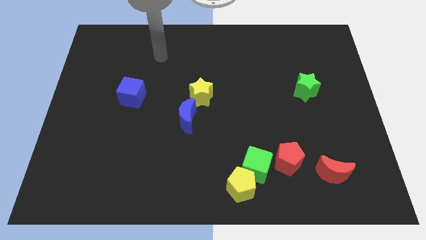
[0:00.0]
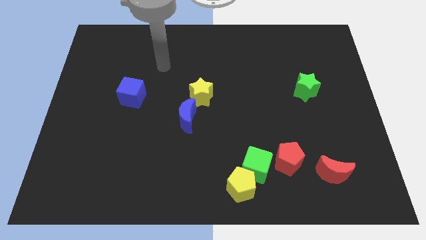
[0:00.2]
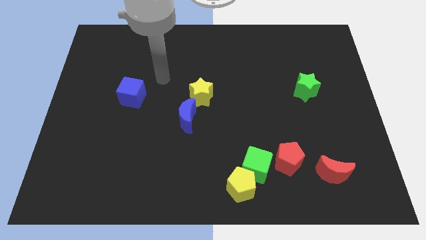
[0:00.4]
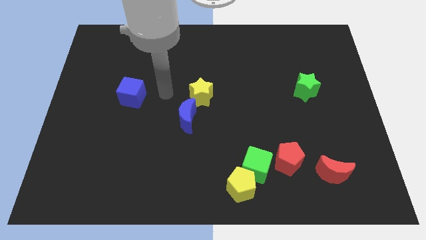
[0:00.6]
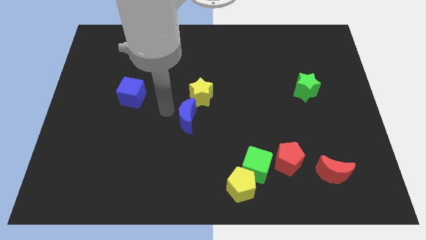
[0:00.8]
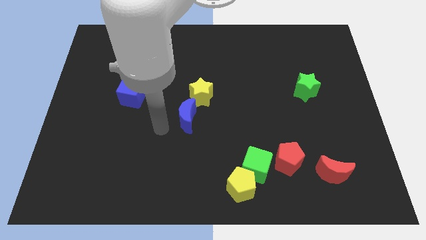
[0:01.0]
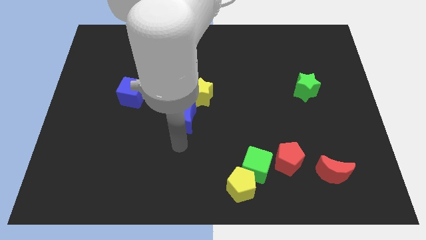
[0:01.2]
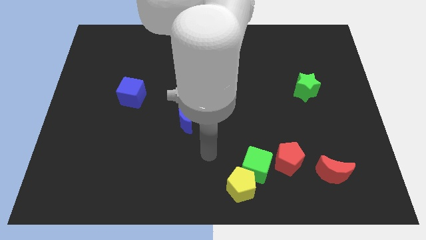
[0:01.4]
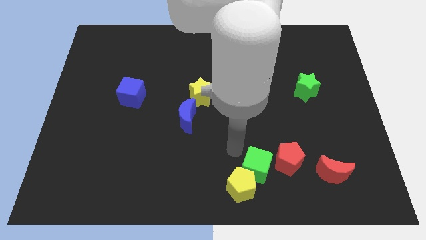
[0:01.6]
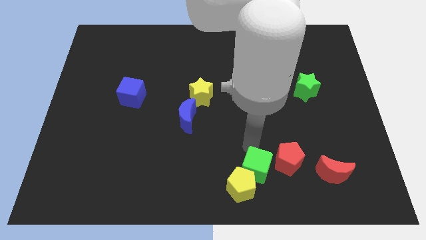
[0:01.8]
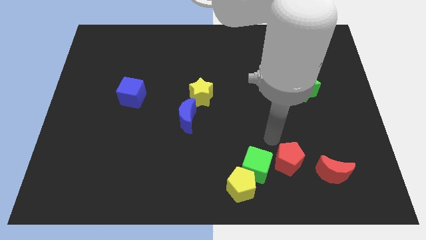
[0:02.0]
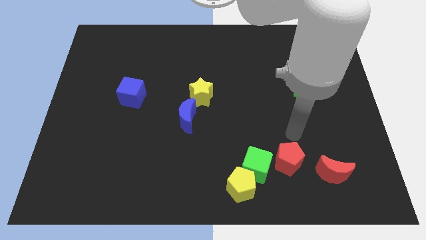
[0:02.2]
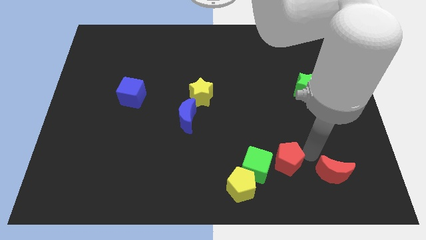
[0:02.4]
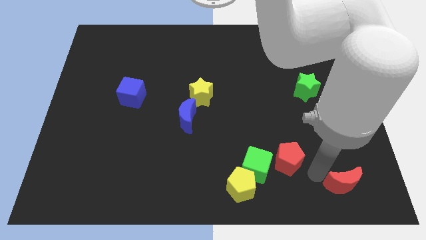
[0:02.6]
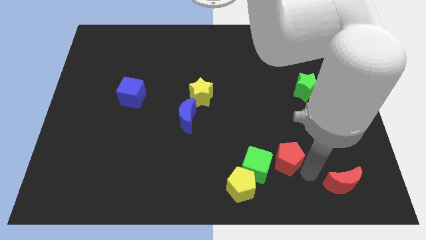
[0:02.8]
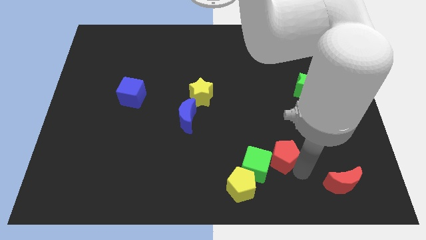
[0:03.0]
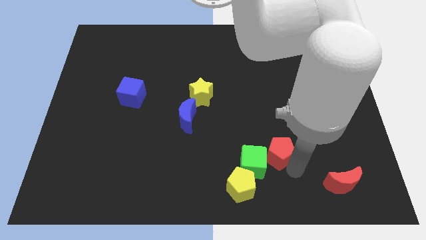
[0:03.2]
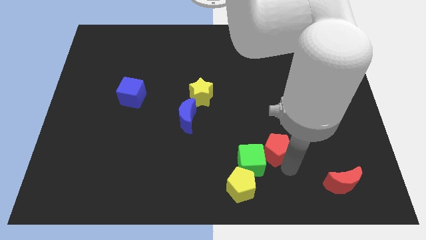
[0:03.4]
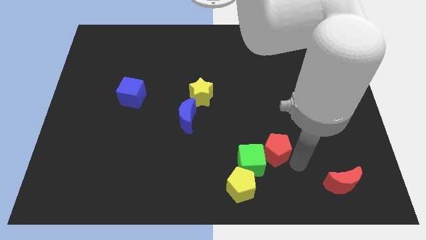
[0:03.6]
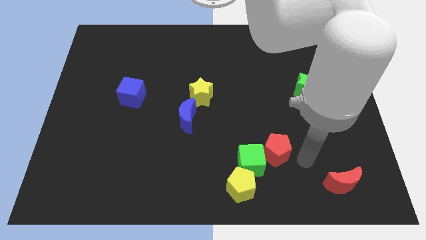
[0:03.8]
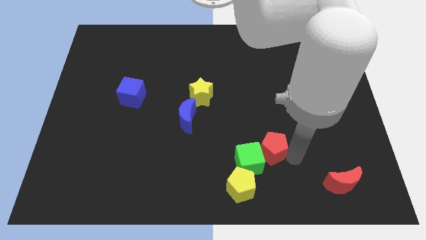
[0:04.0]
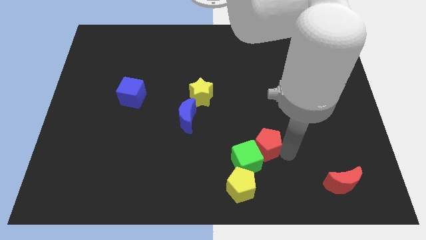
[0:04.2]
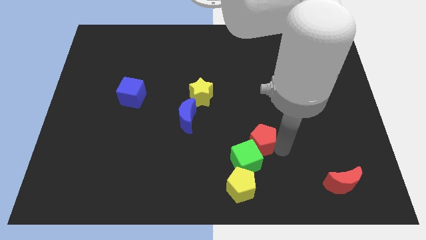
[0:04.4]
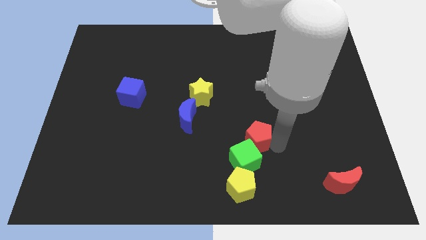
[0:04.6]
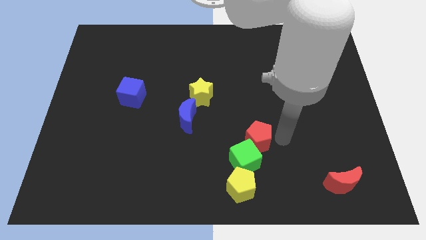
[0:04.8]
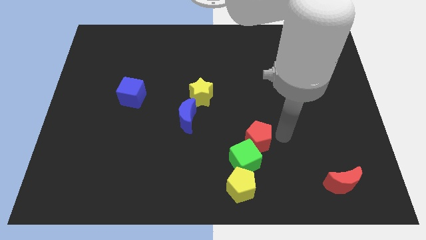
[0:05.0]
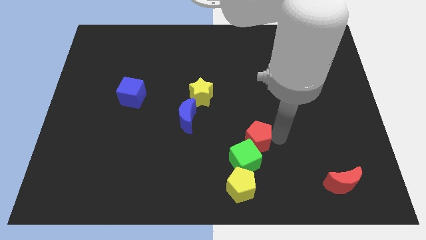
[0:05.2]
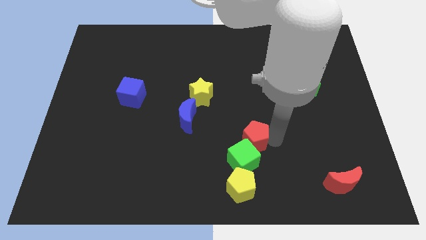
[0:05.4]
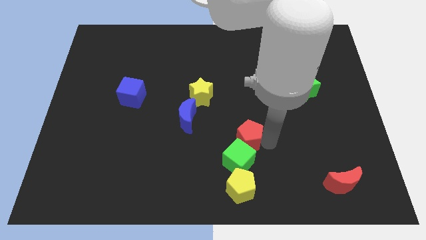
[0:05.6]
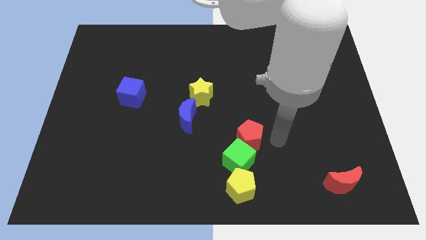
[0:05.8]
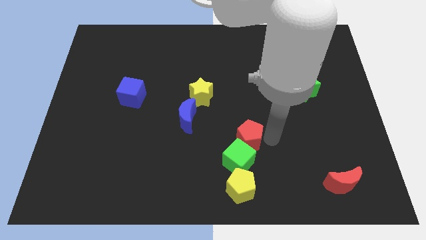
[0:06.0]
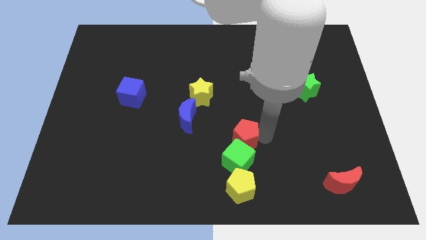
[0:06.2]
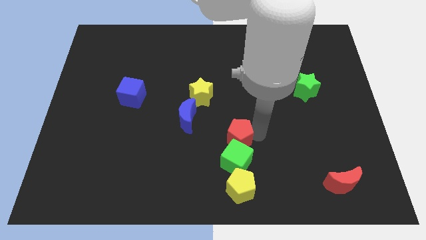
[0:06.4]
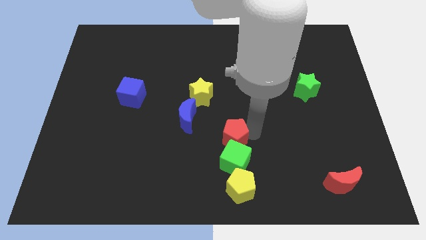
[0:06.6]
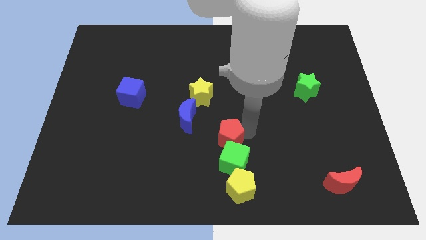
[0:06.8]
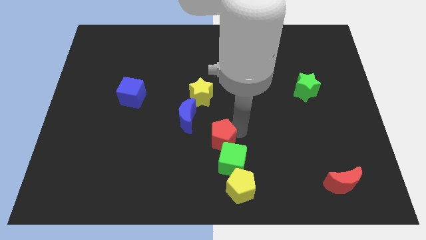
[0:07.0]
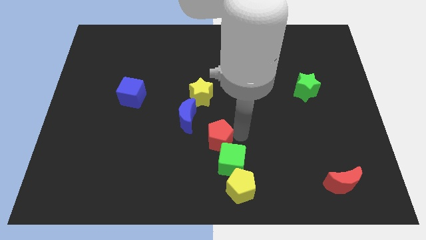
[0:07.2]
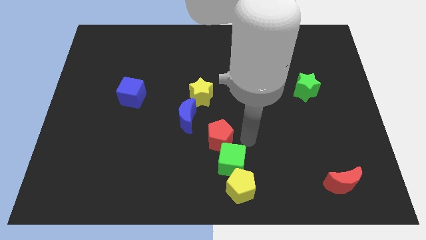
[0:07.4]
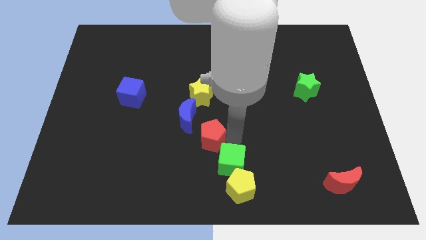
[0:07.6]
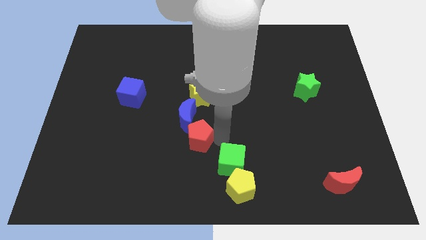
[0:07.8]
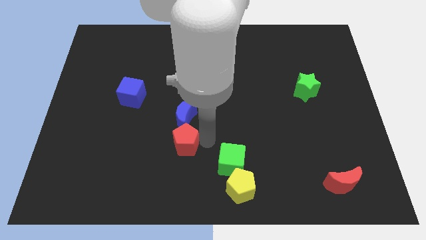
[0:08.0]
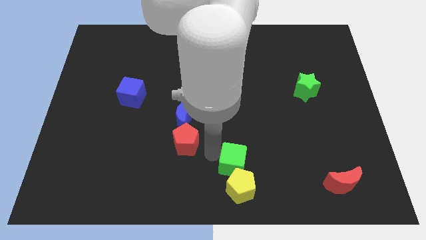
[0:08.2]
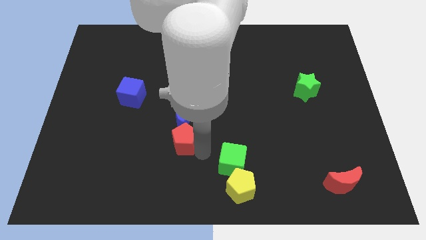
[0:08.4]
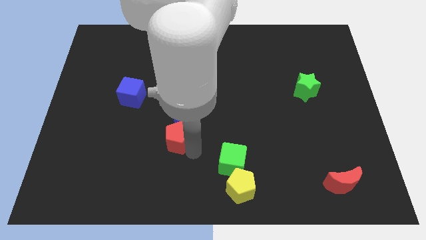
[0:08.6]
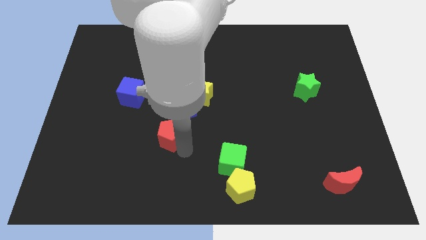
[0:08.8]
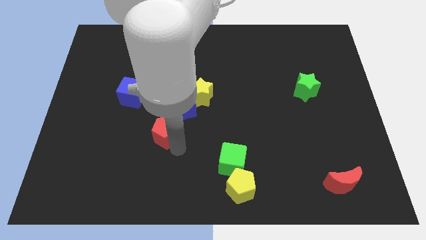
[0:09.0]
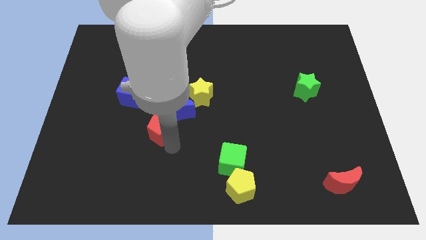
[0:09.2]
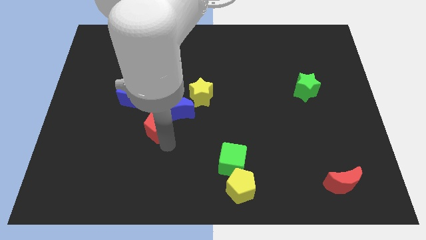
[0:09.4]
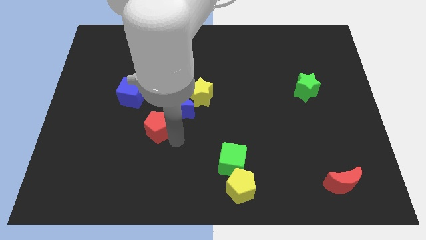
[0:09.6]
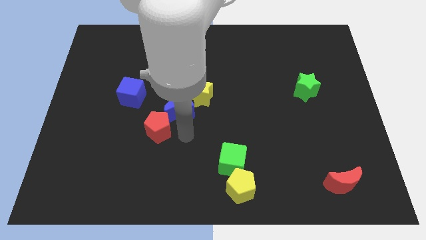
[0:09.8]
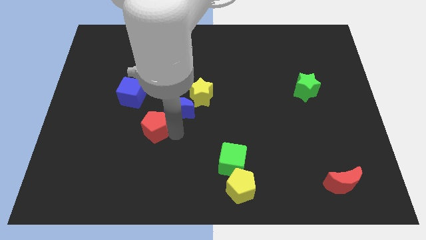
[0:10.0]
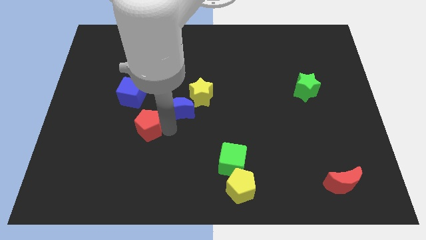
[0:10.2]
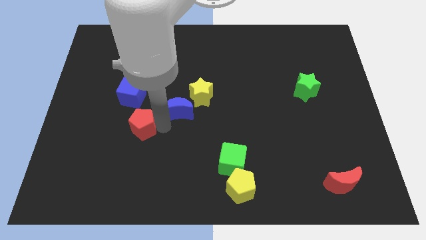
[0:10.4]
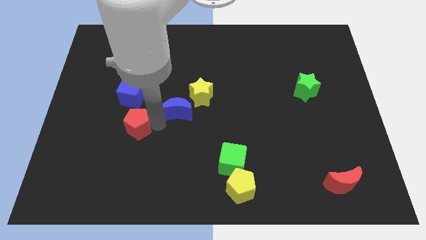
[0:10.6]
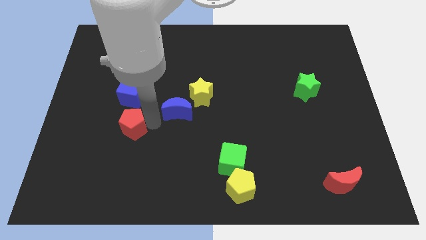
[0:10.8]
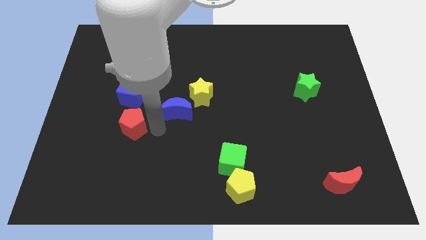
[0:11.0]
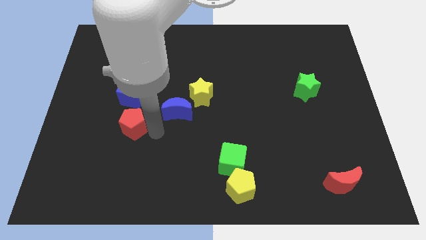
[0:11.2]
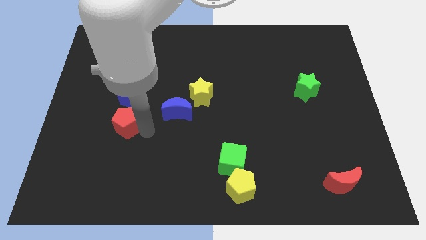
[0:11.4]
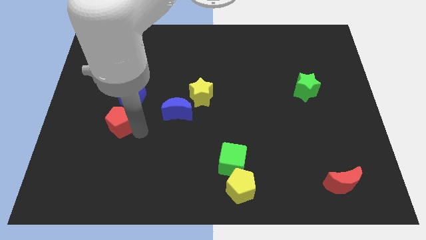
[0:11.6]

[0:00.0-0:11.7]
move the red pentagon diagonally down and to the left of the blue cube

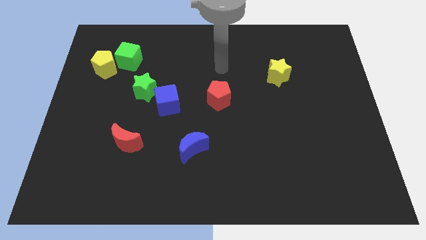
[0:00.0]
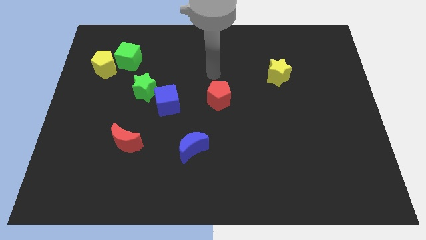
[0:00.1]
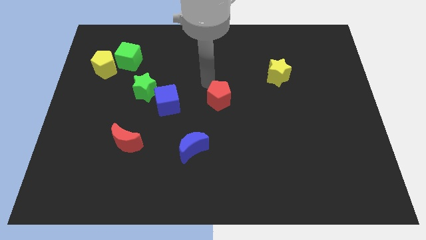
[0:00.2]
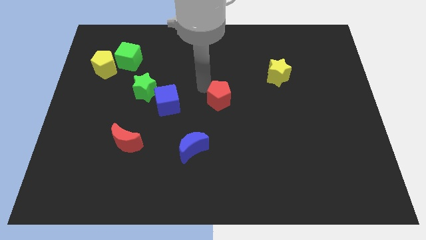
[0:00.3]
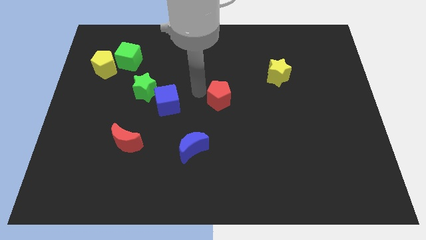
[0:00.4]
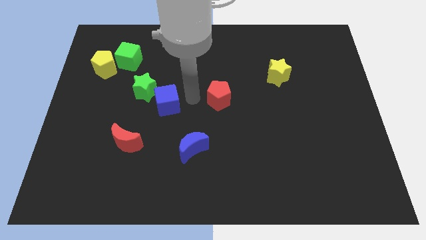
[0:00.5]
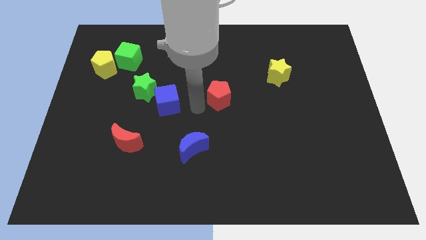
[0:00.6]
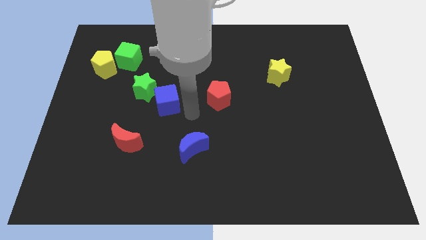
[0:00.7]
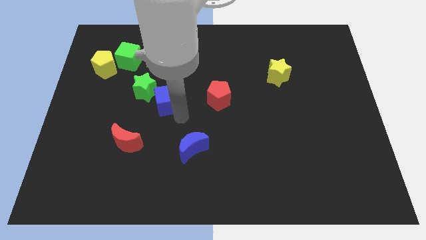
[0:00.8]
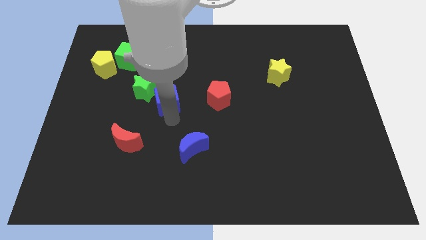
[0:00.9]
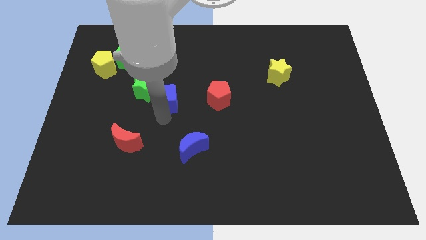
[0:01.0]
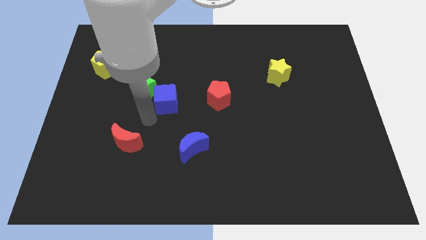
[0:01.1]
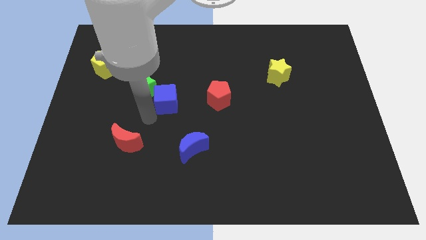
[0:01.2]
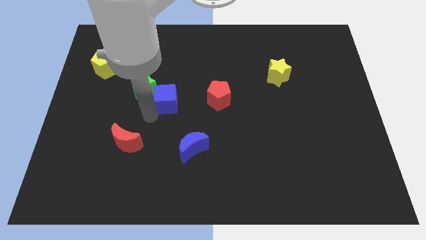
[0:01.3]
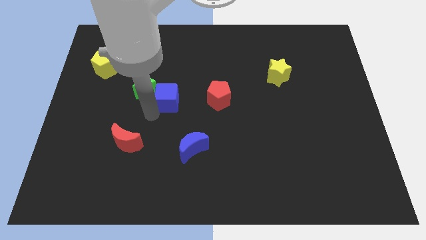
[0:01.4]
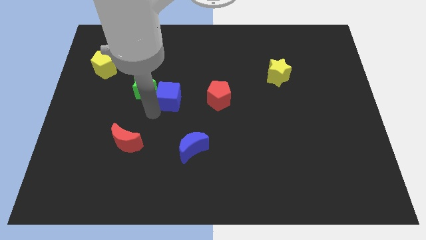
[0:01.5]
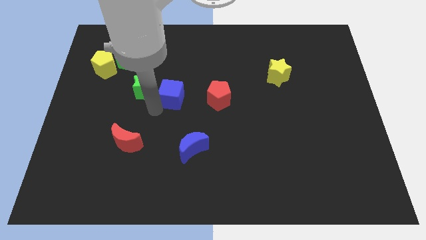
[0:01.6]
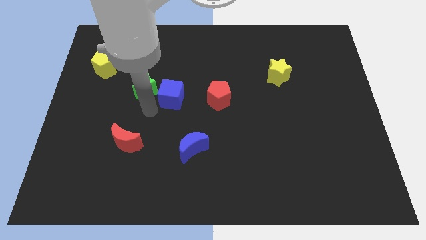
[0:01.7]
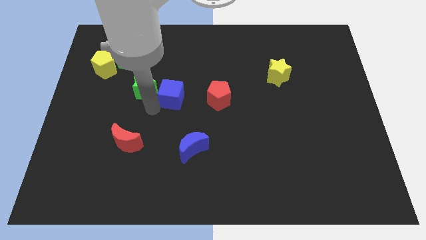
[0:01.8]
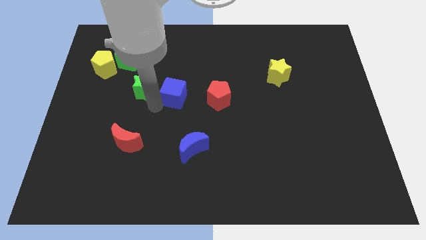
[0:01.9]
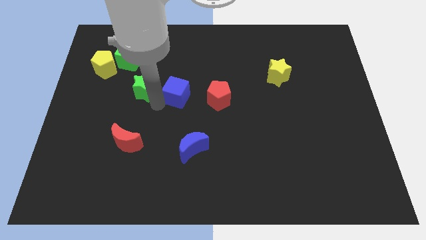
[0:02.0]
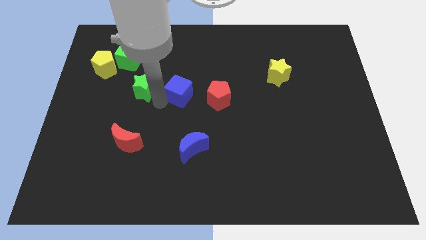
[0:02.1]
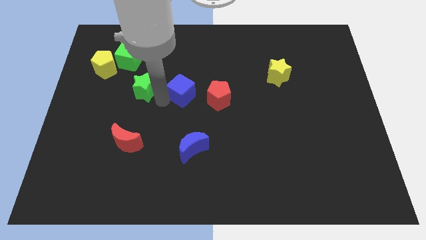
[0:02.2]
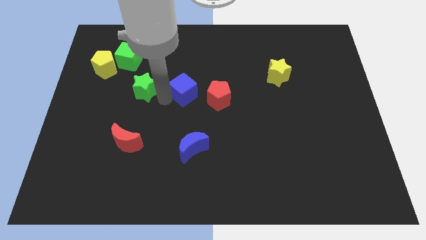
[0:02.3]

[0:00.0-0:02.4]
put the blue cube diagonally up and to the left of the red pentagon
